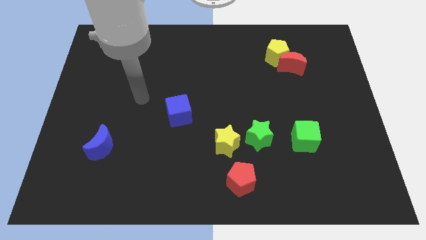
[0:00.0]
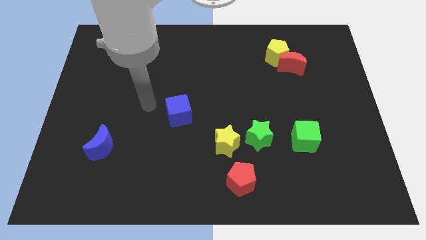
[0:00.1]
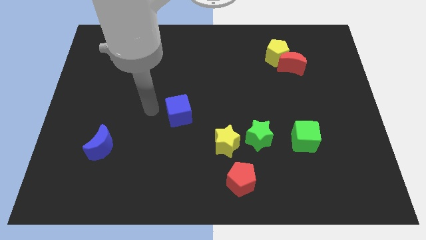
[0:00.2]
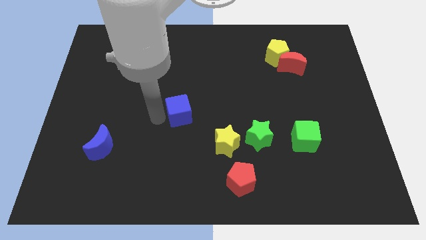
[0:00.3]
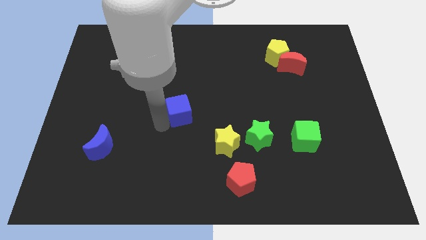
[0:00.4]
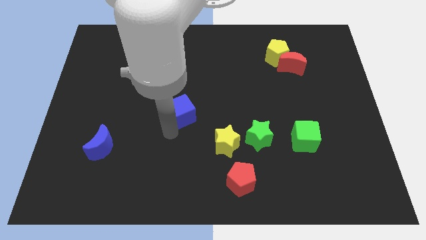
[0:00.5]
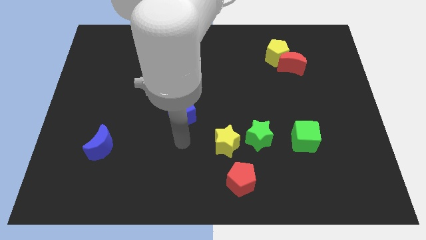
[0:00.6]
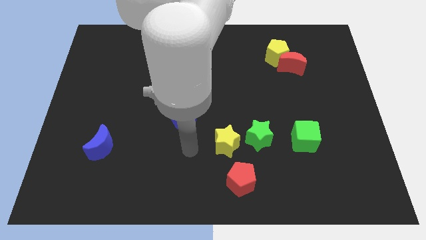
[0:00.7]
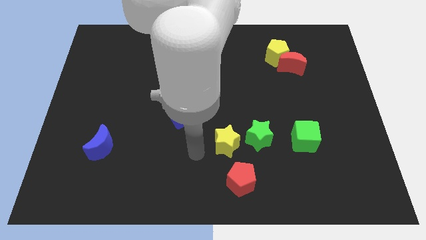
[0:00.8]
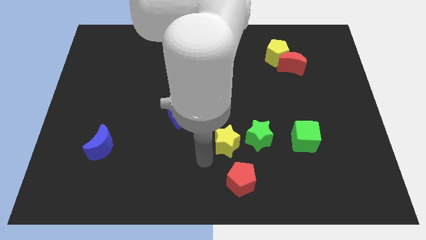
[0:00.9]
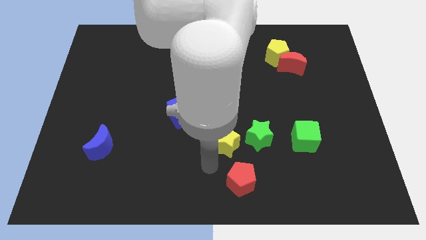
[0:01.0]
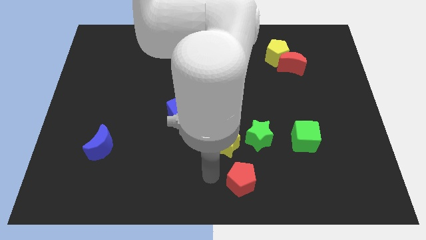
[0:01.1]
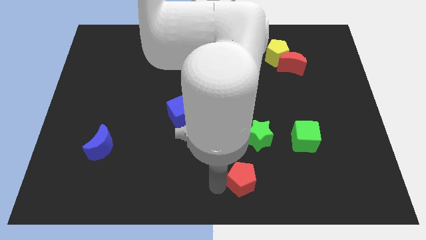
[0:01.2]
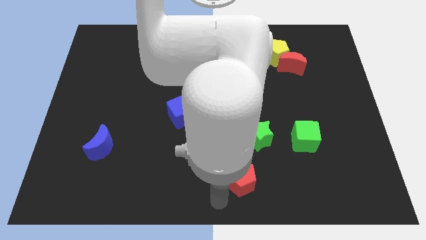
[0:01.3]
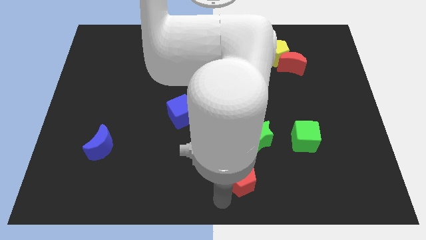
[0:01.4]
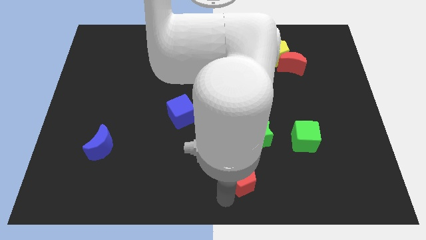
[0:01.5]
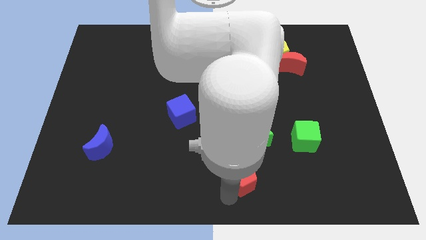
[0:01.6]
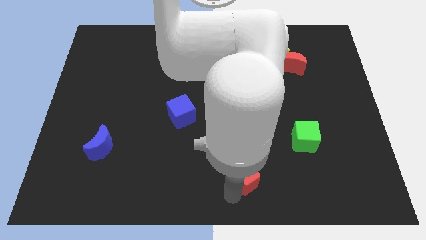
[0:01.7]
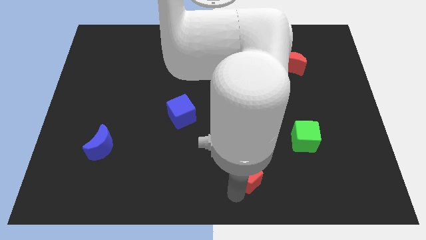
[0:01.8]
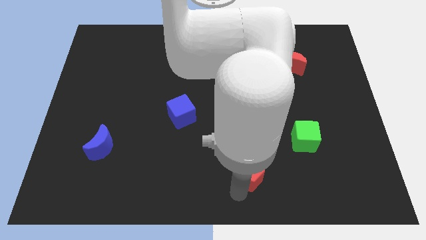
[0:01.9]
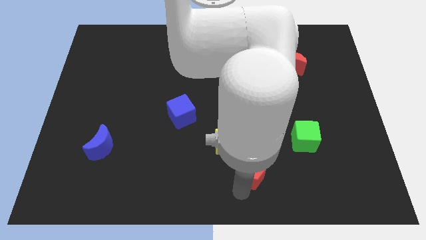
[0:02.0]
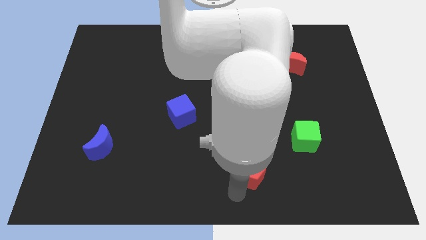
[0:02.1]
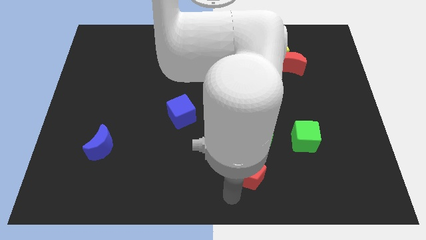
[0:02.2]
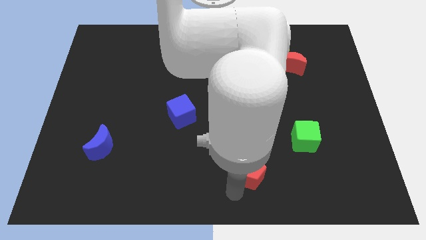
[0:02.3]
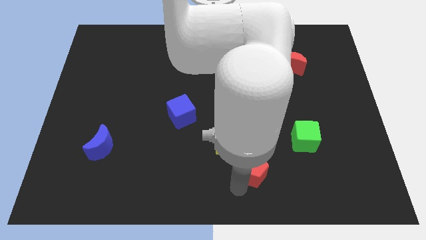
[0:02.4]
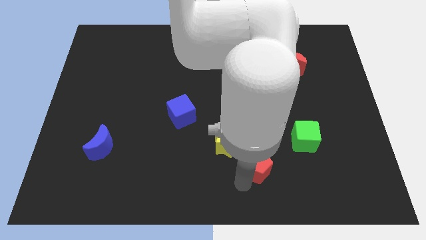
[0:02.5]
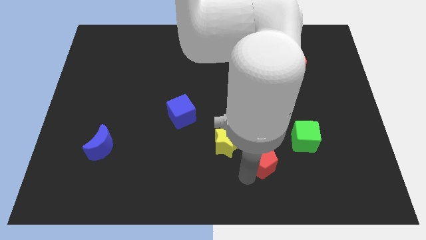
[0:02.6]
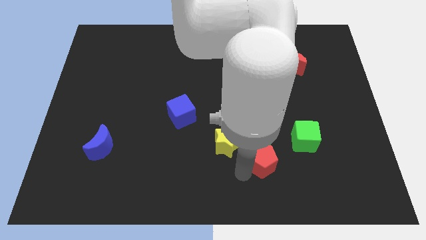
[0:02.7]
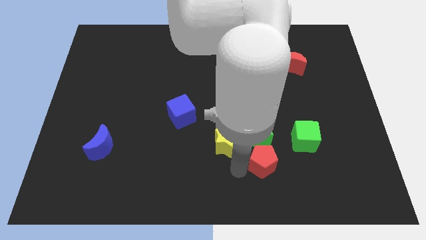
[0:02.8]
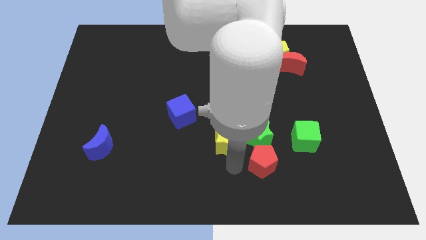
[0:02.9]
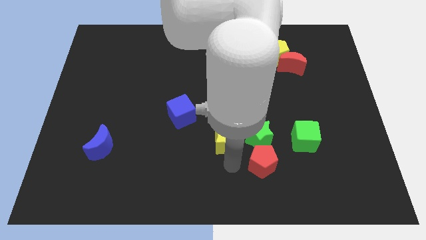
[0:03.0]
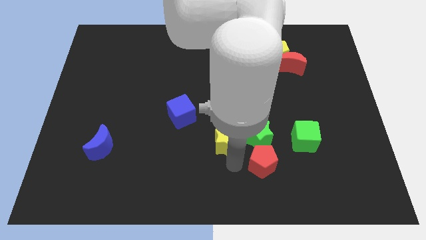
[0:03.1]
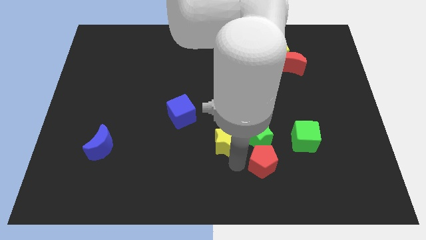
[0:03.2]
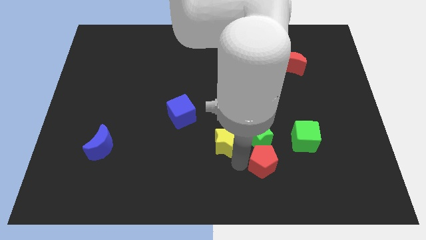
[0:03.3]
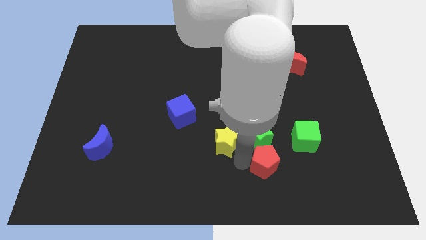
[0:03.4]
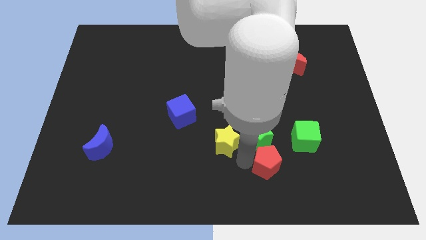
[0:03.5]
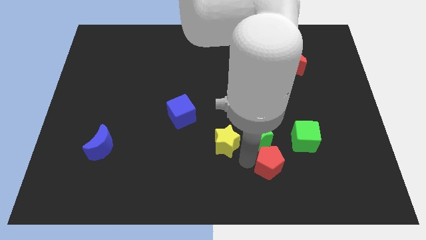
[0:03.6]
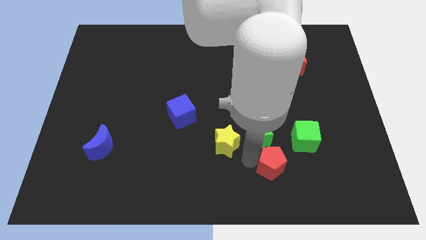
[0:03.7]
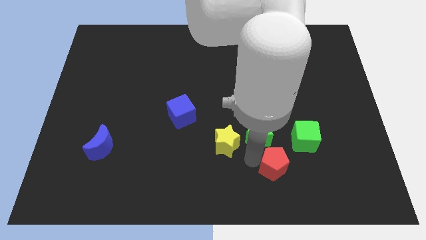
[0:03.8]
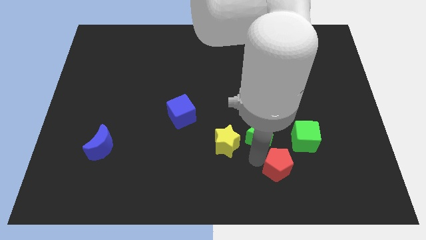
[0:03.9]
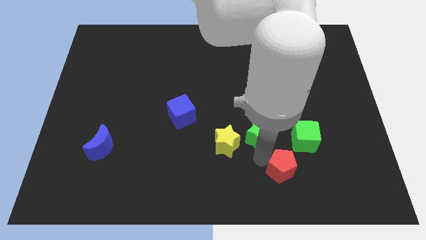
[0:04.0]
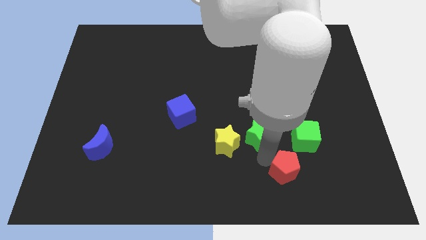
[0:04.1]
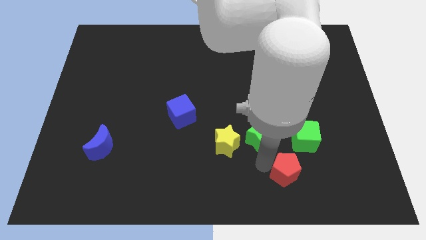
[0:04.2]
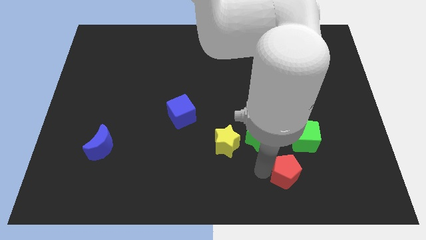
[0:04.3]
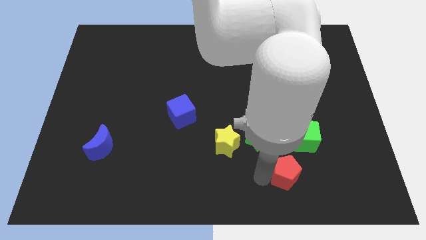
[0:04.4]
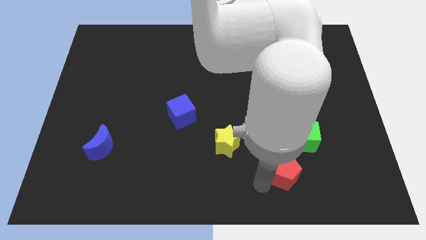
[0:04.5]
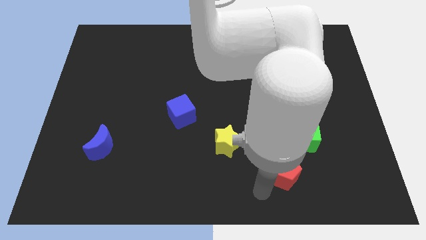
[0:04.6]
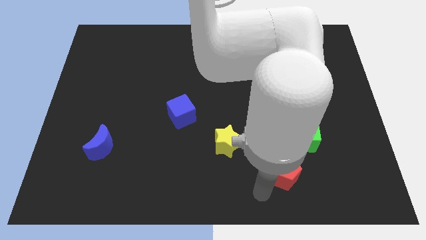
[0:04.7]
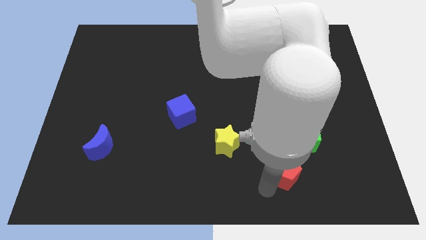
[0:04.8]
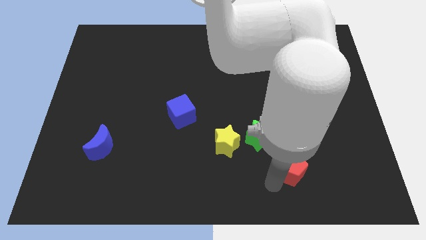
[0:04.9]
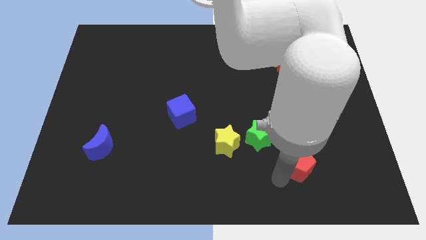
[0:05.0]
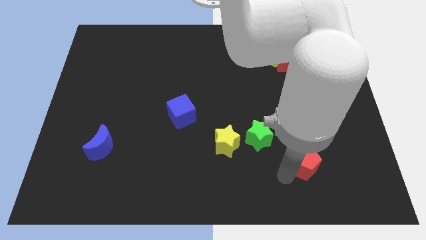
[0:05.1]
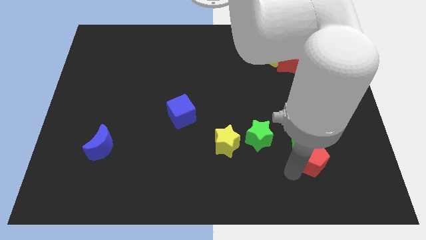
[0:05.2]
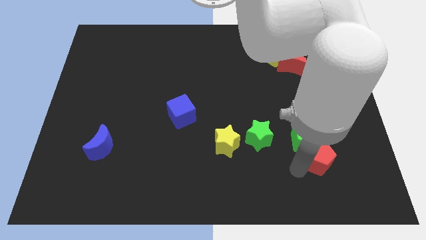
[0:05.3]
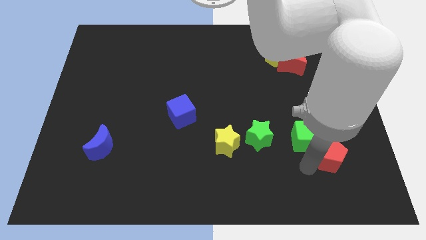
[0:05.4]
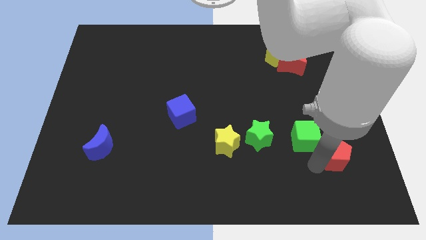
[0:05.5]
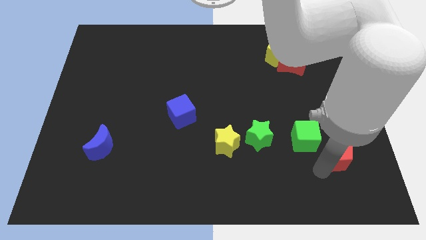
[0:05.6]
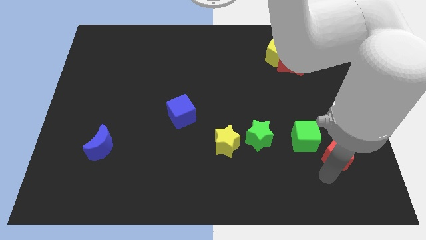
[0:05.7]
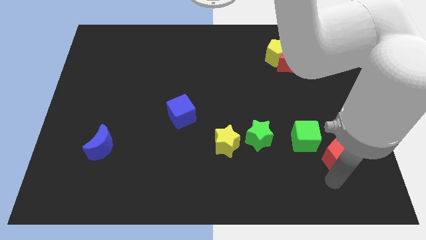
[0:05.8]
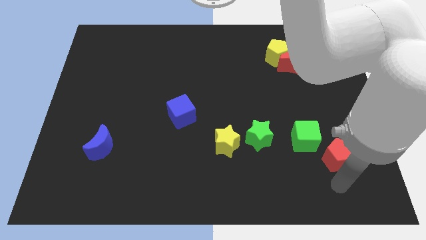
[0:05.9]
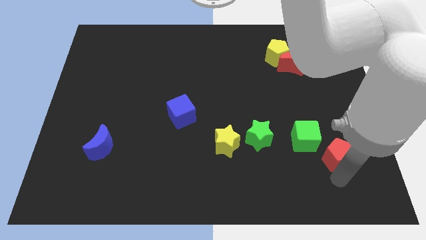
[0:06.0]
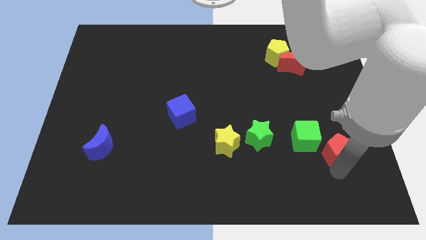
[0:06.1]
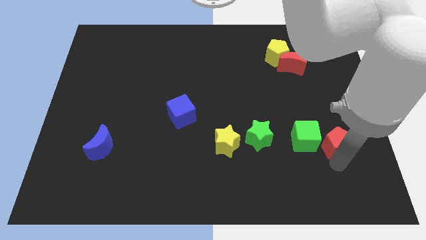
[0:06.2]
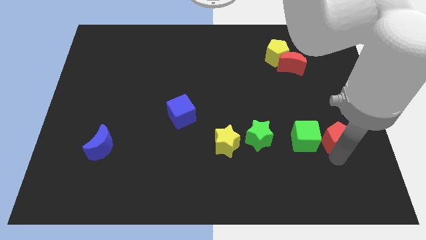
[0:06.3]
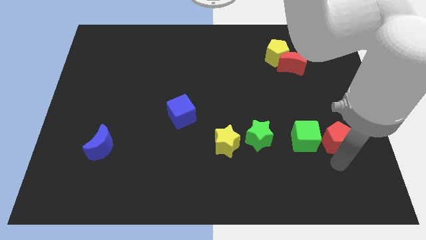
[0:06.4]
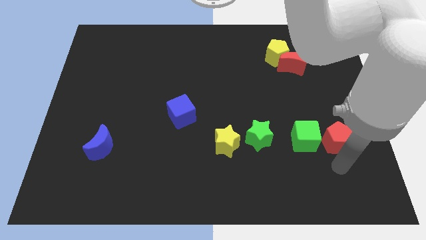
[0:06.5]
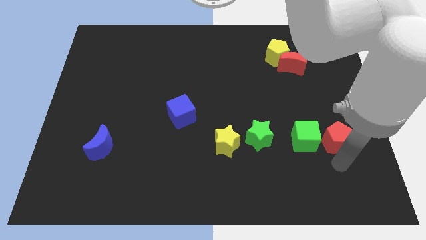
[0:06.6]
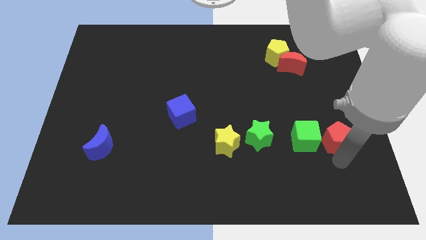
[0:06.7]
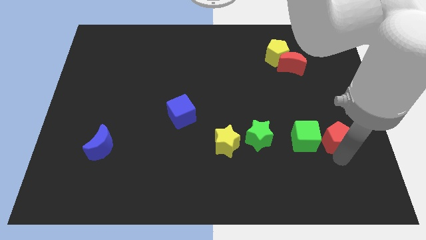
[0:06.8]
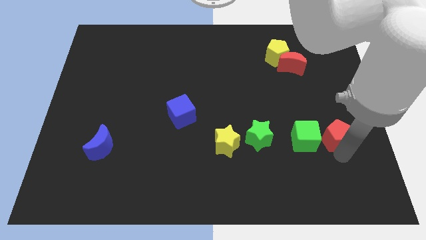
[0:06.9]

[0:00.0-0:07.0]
move the red pentagon upwards and to the right diagonally

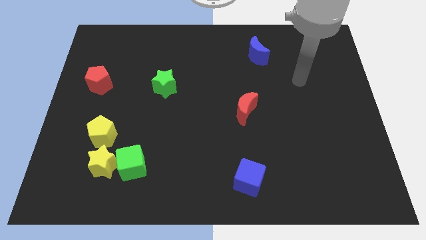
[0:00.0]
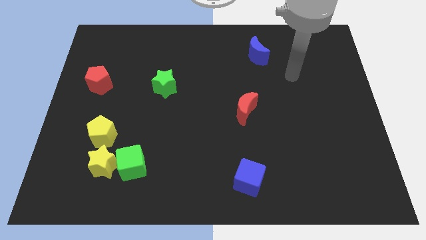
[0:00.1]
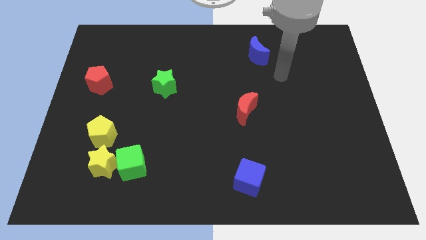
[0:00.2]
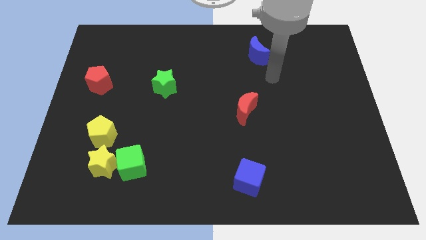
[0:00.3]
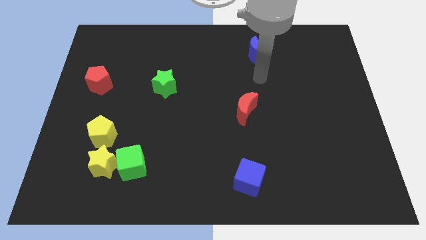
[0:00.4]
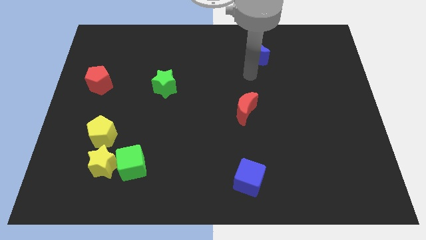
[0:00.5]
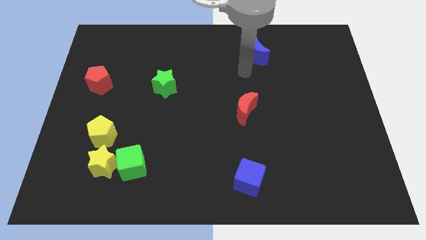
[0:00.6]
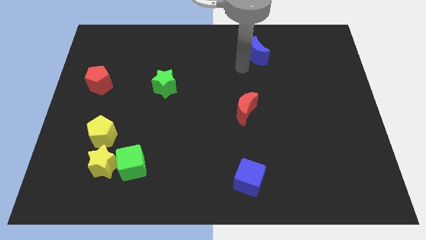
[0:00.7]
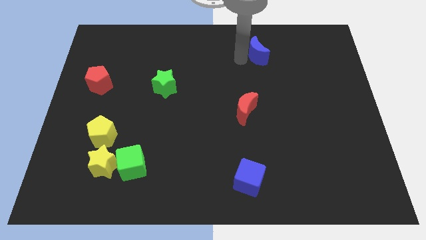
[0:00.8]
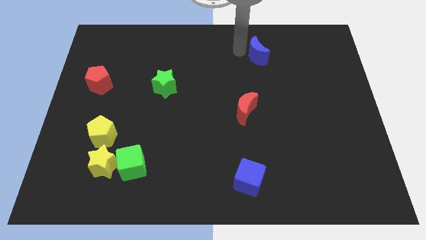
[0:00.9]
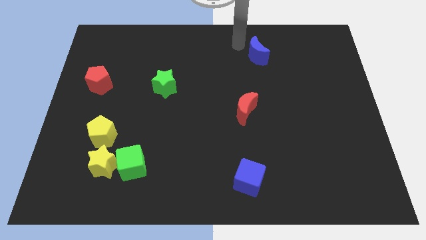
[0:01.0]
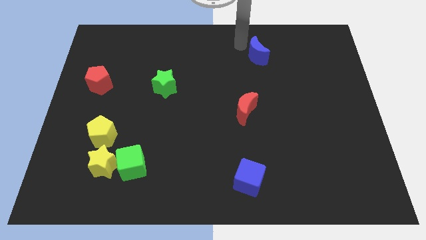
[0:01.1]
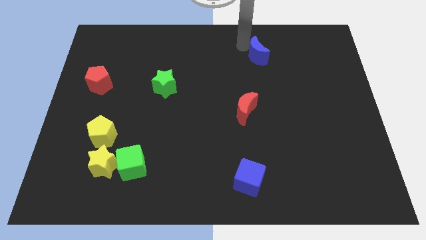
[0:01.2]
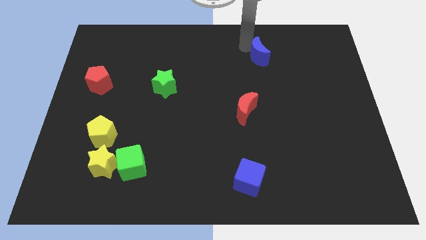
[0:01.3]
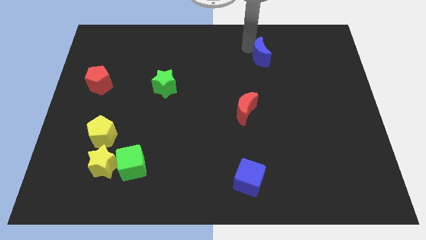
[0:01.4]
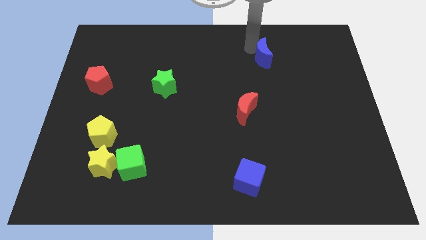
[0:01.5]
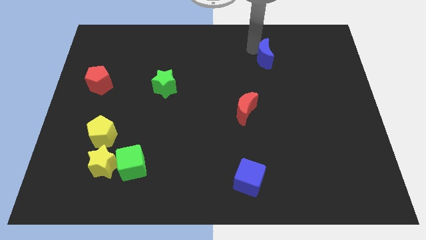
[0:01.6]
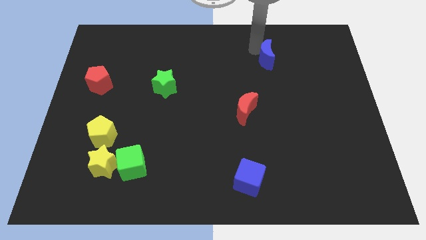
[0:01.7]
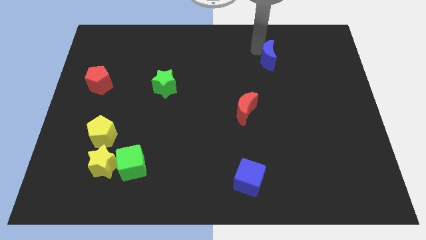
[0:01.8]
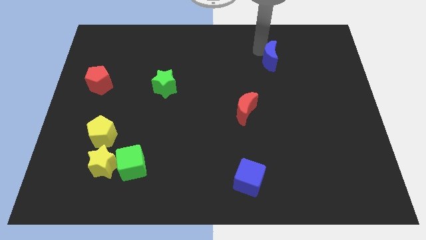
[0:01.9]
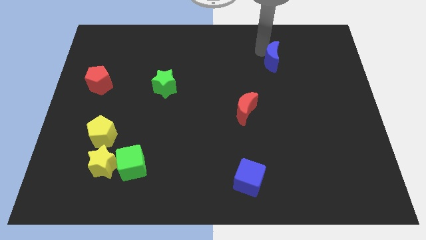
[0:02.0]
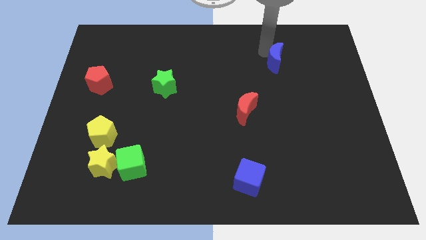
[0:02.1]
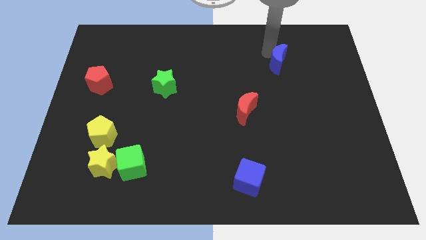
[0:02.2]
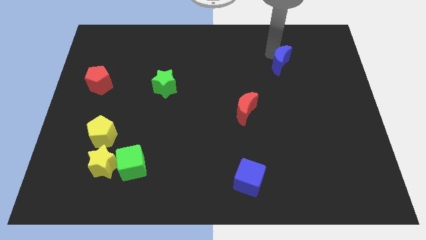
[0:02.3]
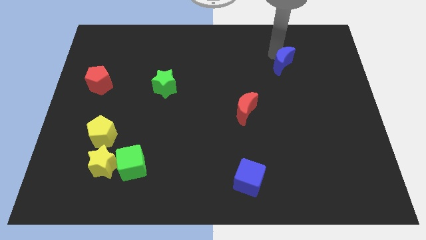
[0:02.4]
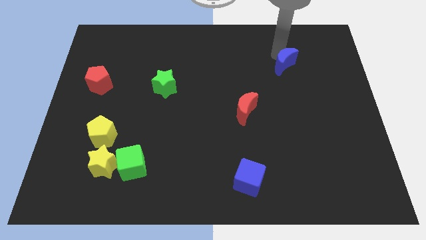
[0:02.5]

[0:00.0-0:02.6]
push the blue moon a bit diagonally down and to the right
